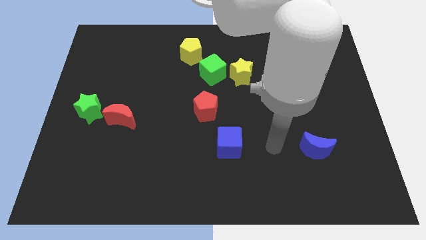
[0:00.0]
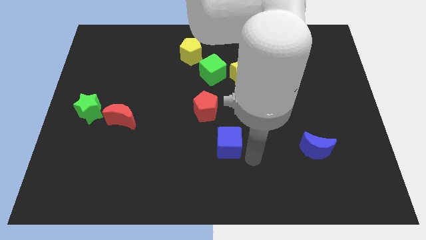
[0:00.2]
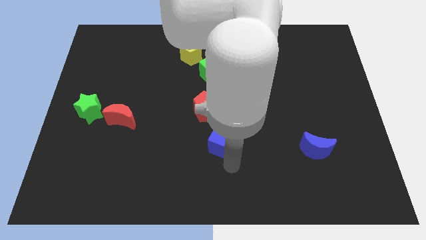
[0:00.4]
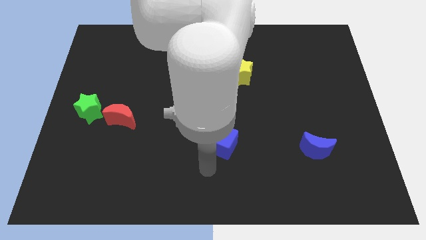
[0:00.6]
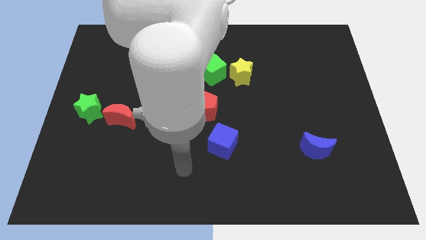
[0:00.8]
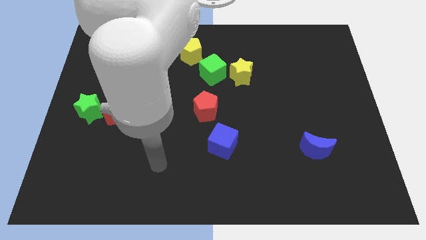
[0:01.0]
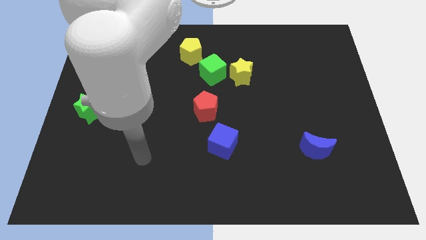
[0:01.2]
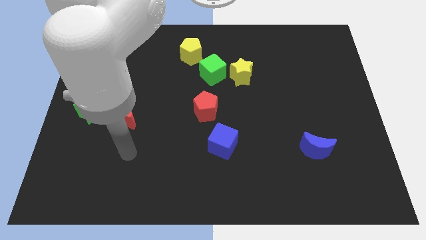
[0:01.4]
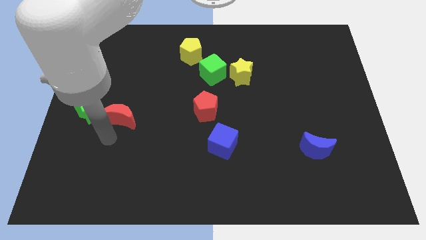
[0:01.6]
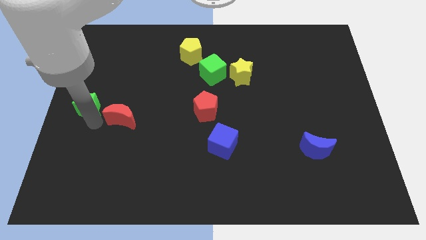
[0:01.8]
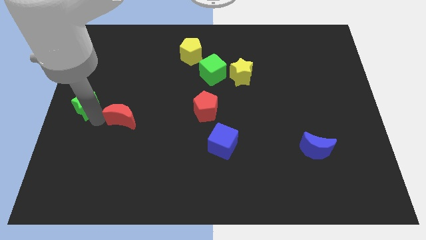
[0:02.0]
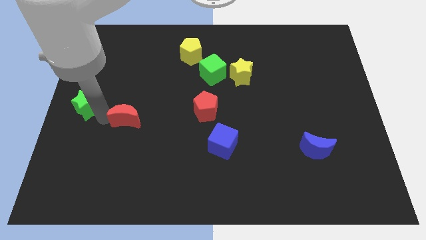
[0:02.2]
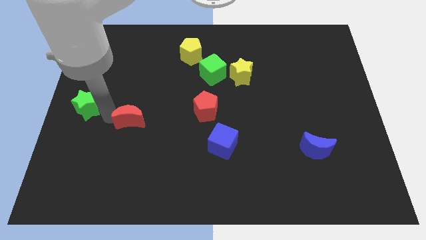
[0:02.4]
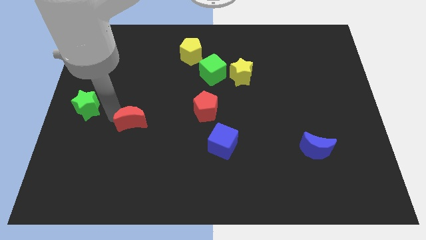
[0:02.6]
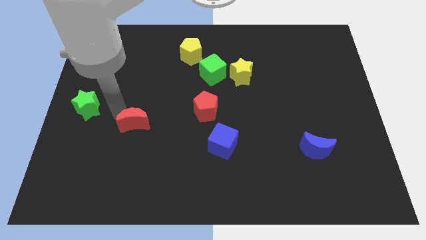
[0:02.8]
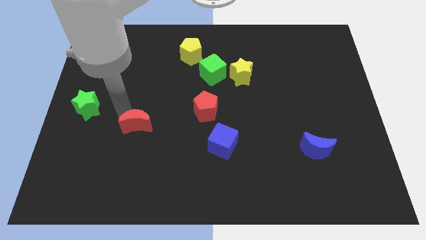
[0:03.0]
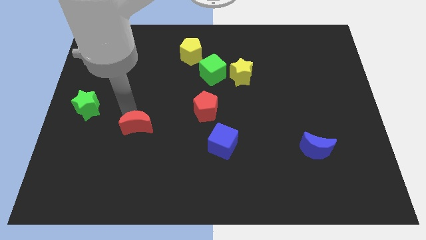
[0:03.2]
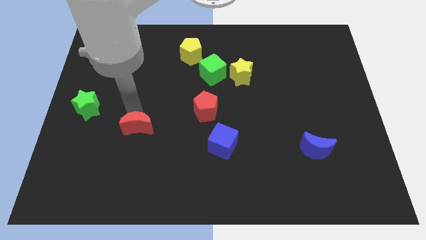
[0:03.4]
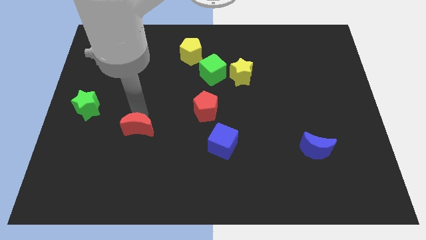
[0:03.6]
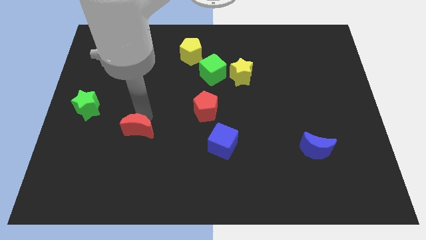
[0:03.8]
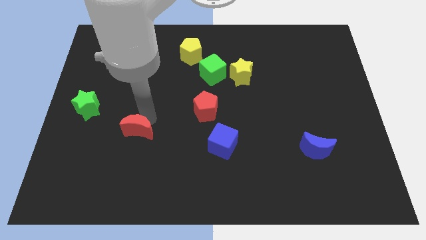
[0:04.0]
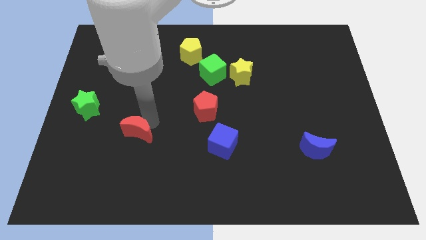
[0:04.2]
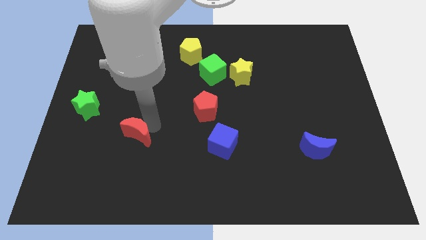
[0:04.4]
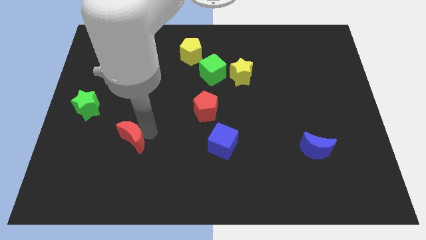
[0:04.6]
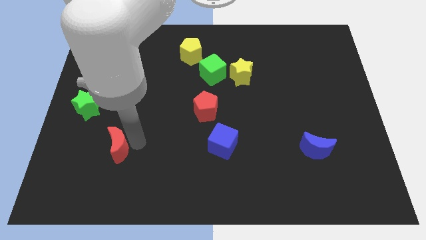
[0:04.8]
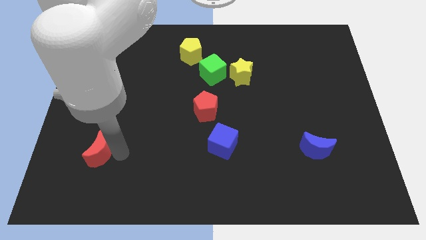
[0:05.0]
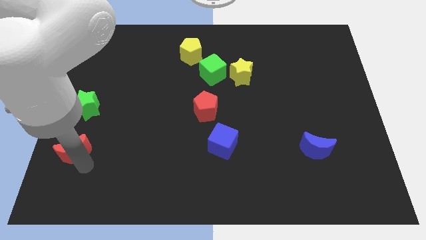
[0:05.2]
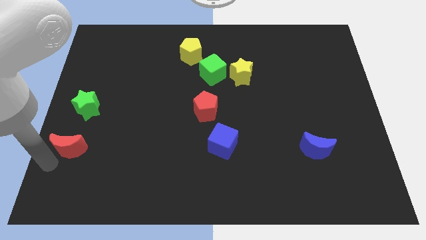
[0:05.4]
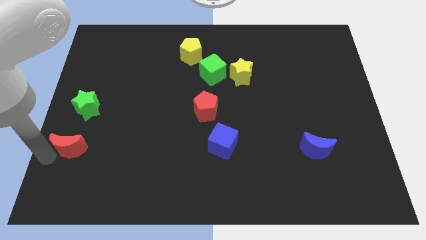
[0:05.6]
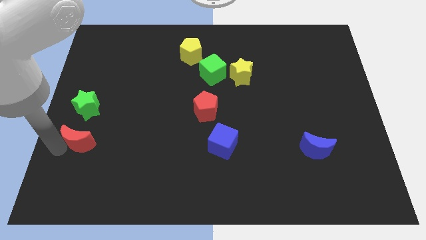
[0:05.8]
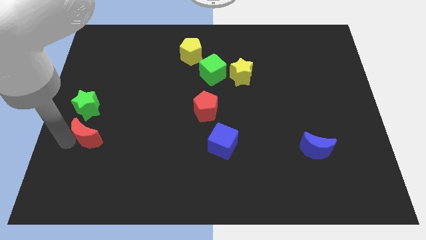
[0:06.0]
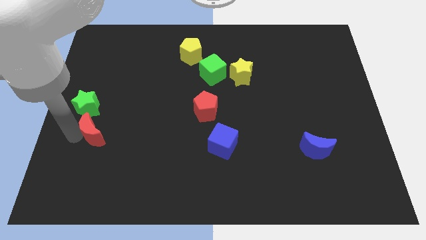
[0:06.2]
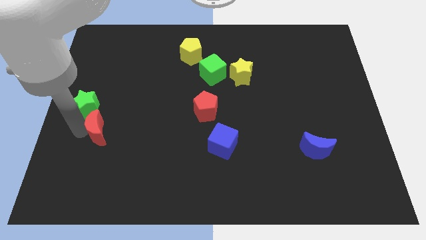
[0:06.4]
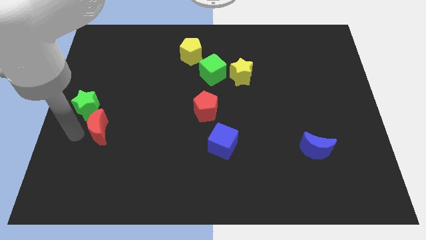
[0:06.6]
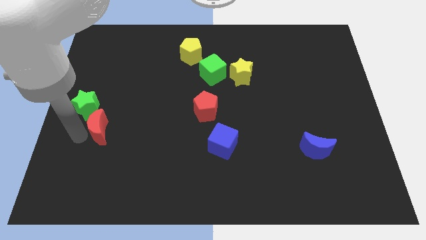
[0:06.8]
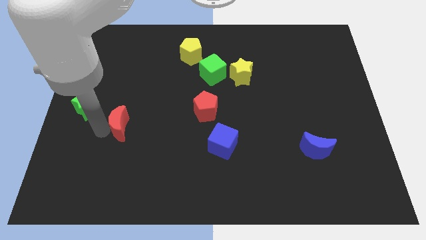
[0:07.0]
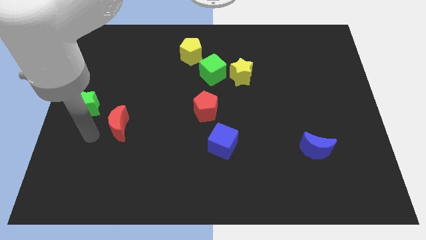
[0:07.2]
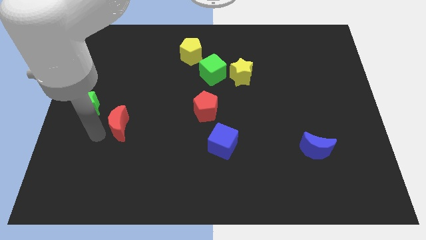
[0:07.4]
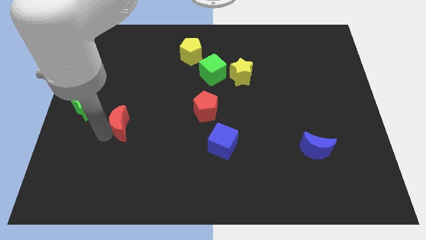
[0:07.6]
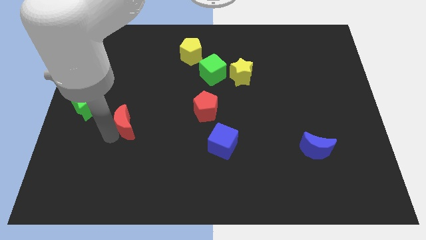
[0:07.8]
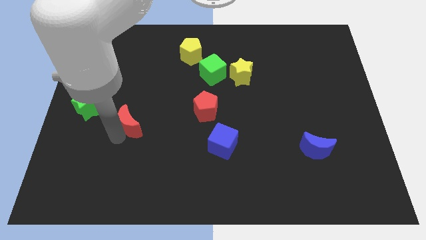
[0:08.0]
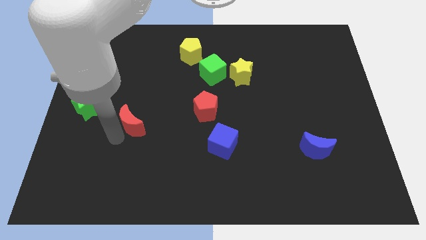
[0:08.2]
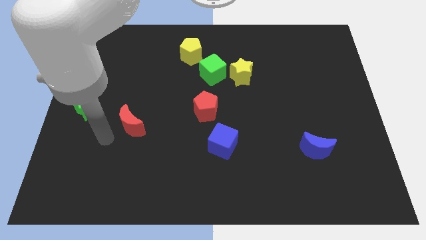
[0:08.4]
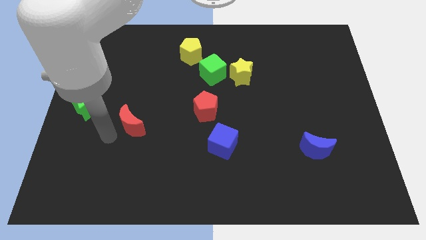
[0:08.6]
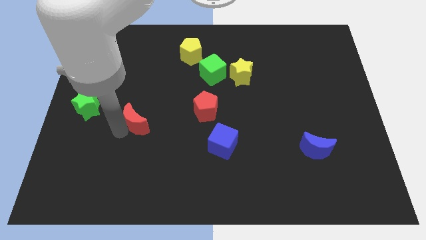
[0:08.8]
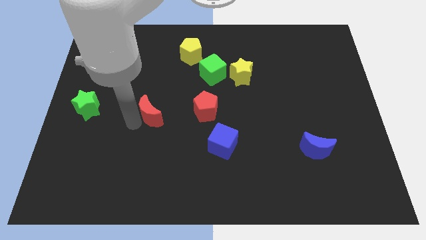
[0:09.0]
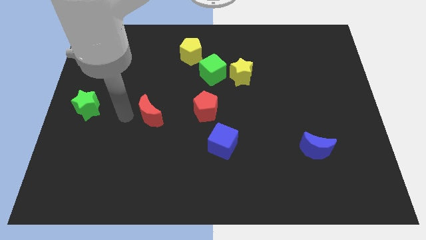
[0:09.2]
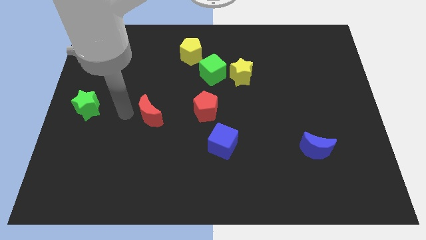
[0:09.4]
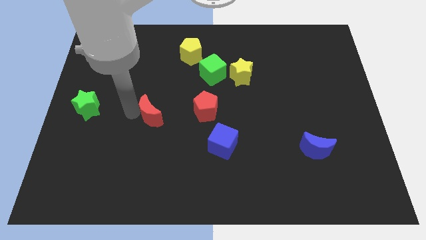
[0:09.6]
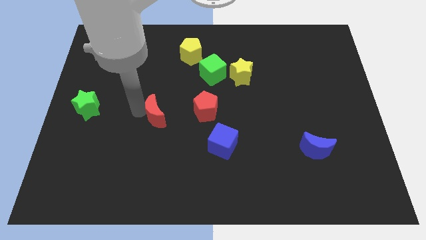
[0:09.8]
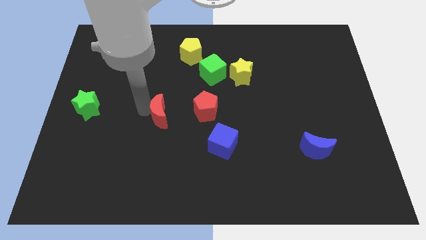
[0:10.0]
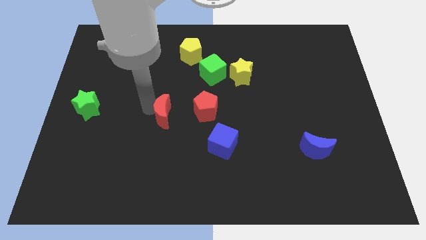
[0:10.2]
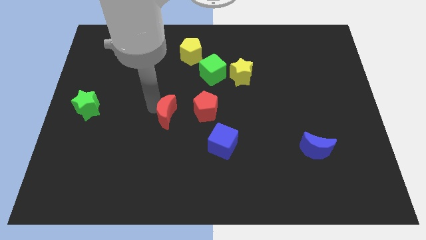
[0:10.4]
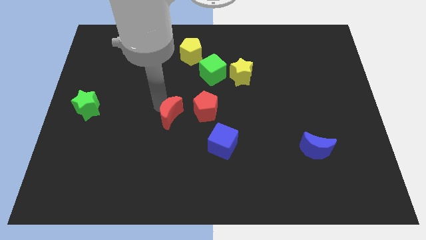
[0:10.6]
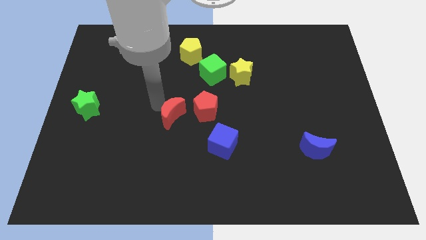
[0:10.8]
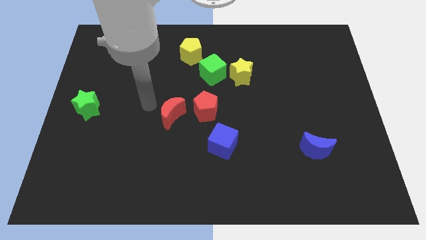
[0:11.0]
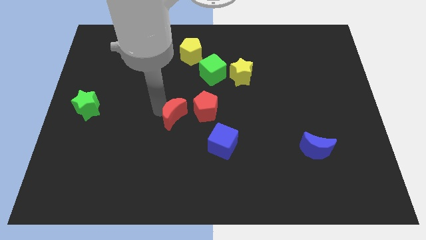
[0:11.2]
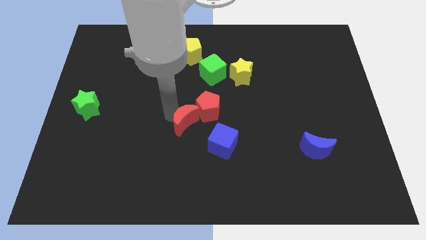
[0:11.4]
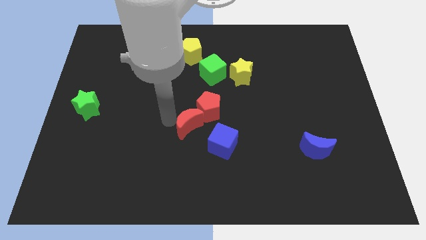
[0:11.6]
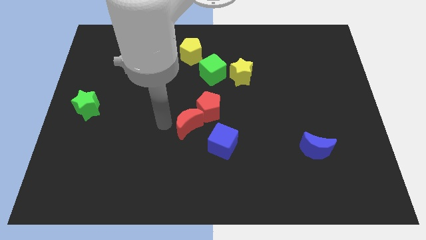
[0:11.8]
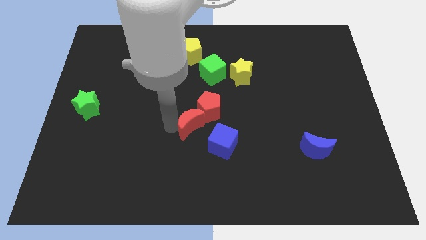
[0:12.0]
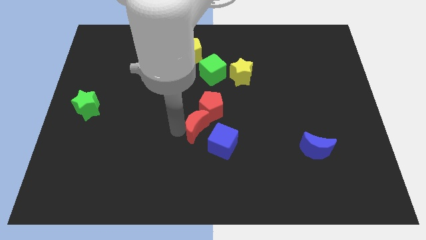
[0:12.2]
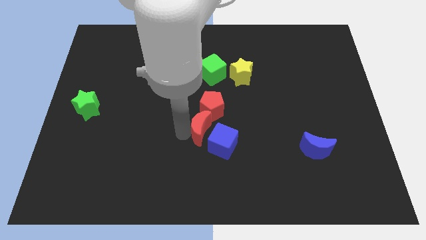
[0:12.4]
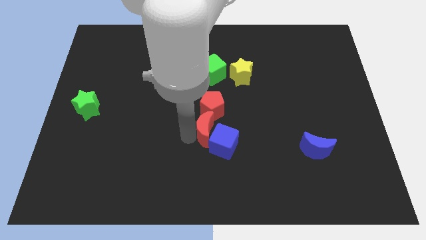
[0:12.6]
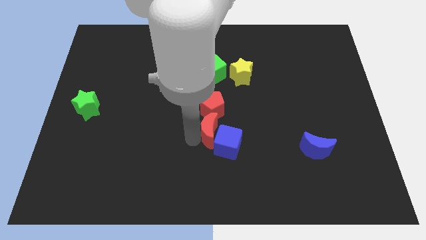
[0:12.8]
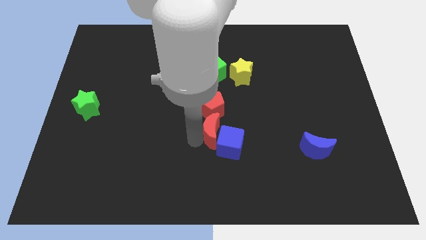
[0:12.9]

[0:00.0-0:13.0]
slide the red moon to the right

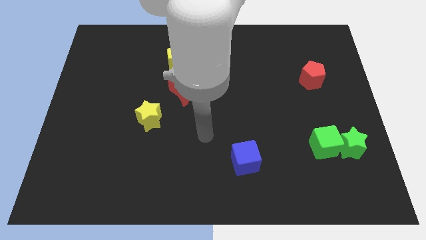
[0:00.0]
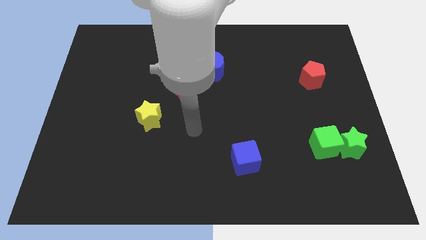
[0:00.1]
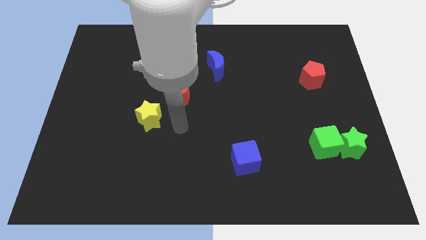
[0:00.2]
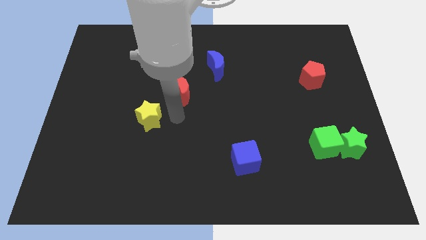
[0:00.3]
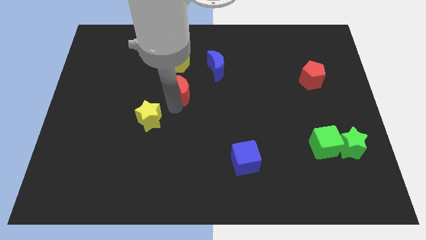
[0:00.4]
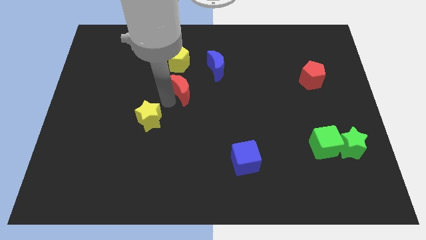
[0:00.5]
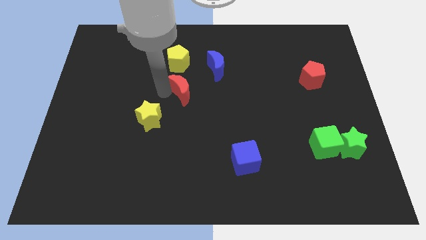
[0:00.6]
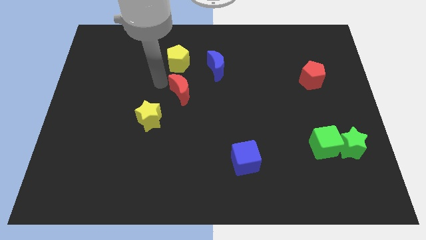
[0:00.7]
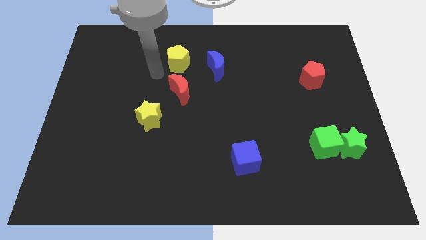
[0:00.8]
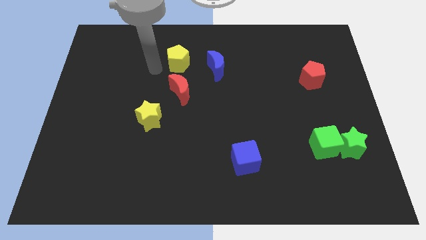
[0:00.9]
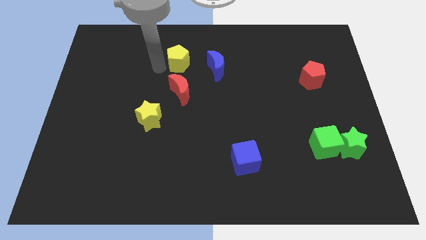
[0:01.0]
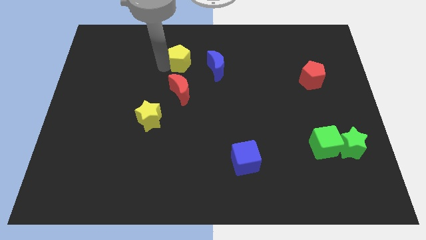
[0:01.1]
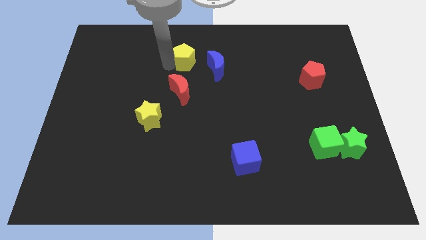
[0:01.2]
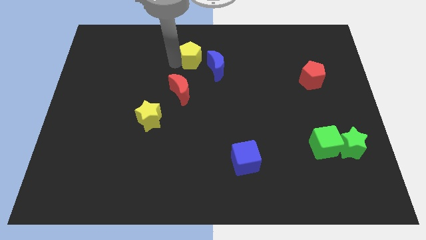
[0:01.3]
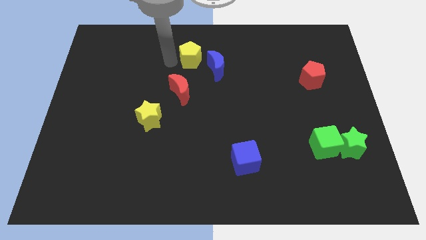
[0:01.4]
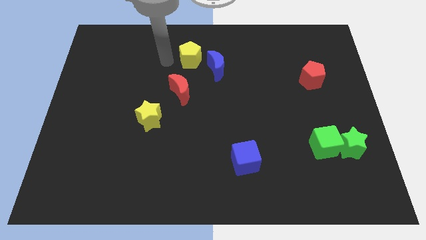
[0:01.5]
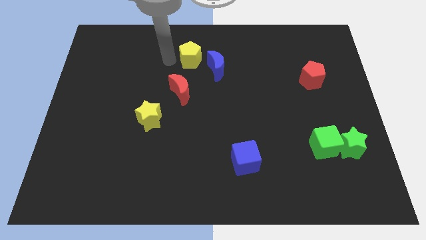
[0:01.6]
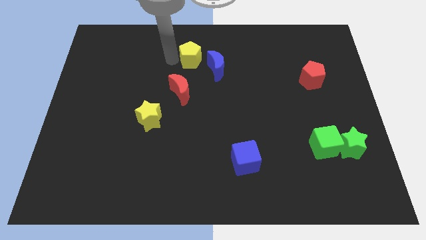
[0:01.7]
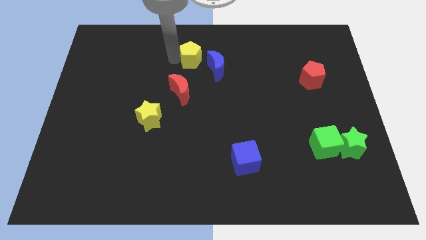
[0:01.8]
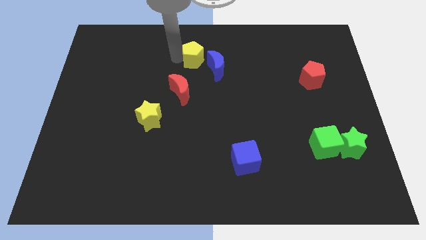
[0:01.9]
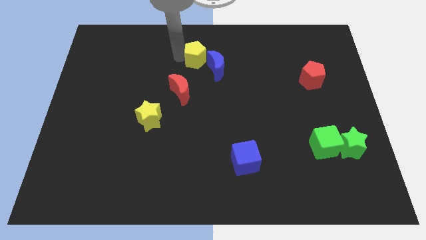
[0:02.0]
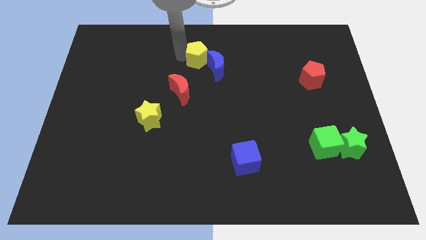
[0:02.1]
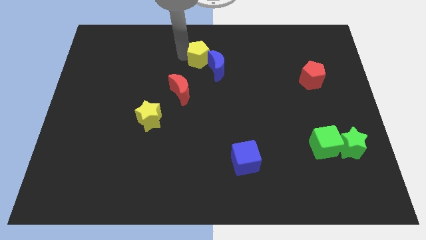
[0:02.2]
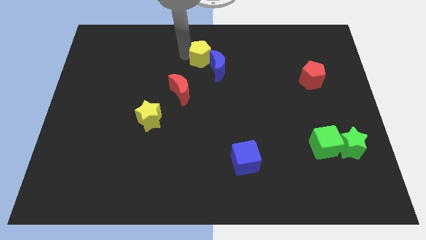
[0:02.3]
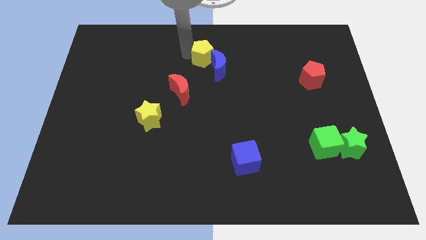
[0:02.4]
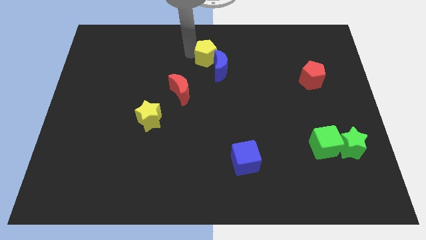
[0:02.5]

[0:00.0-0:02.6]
slightly slide the yellow pentagon right
